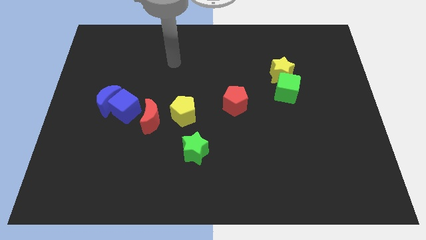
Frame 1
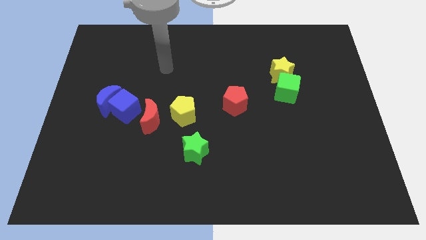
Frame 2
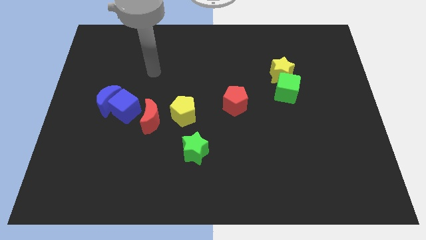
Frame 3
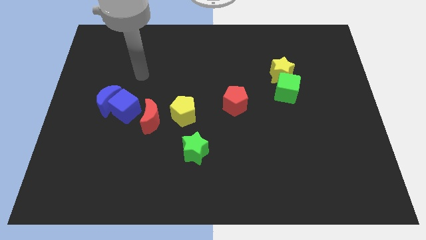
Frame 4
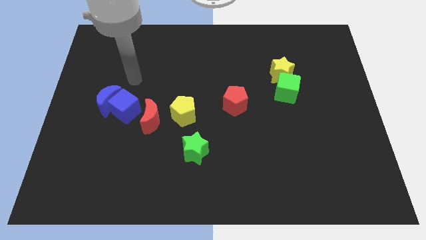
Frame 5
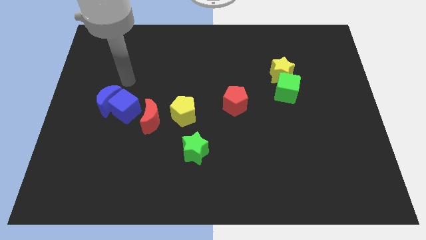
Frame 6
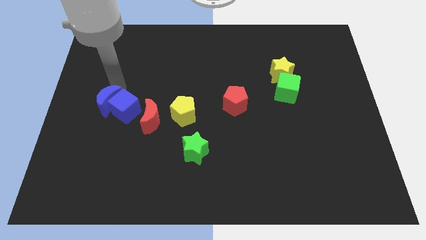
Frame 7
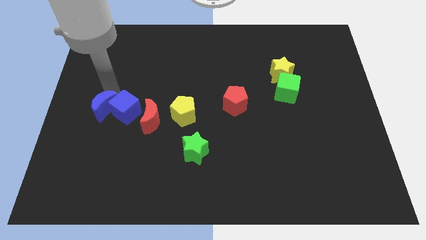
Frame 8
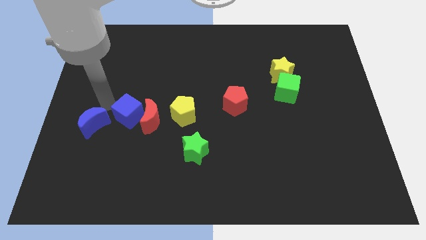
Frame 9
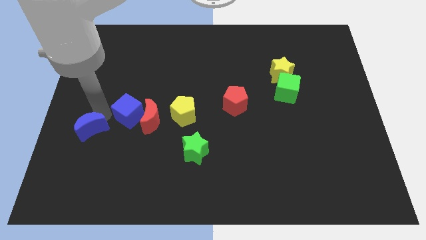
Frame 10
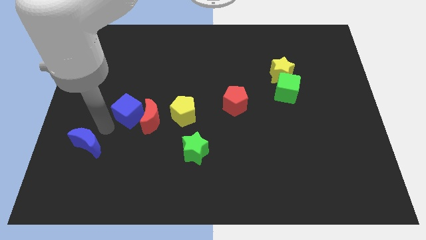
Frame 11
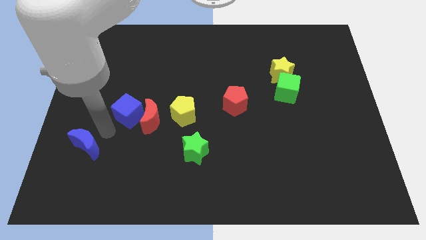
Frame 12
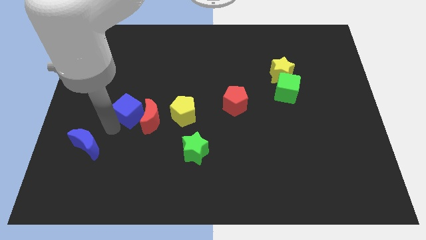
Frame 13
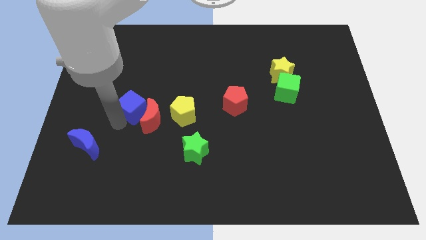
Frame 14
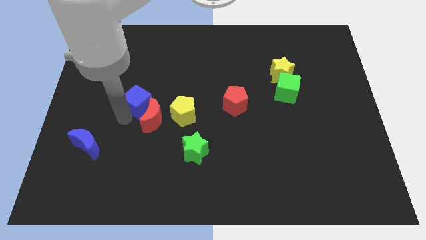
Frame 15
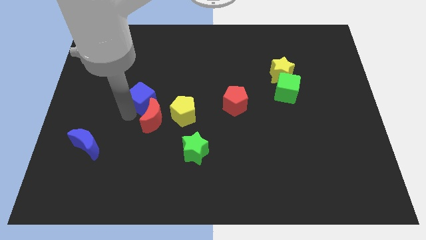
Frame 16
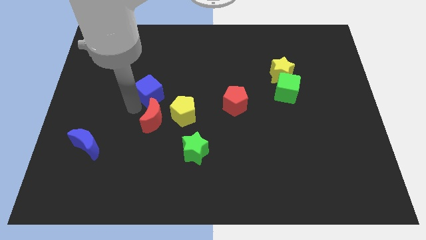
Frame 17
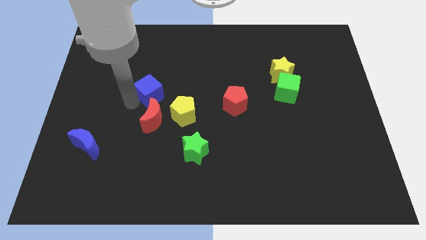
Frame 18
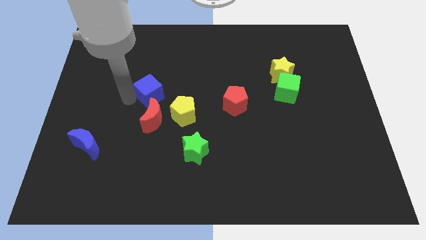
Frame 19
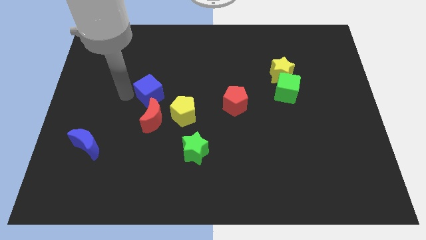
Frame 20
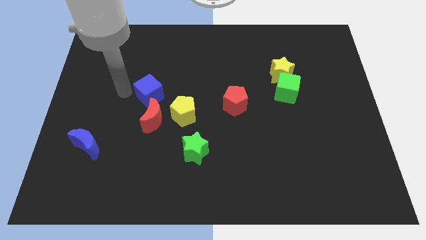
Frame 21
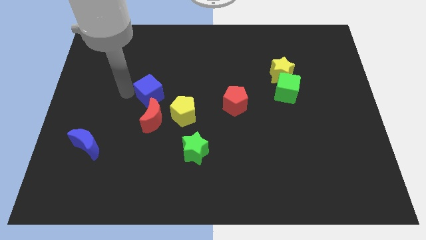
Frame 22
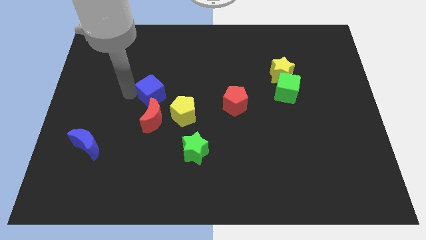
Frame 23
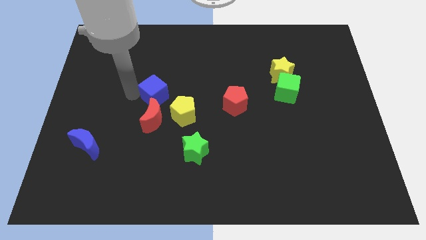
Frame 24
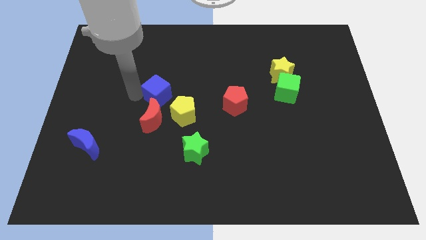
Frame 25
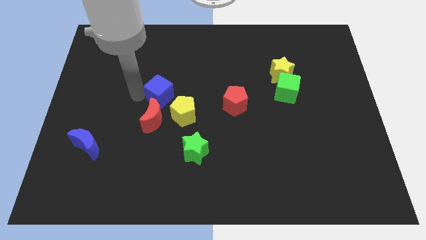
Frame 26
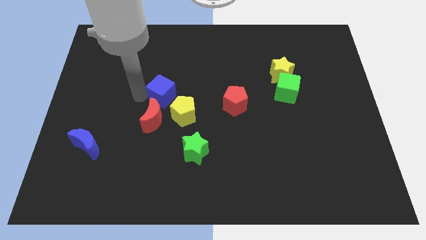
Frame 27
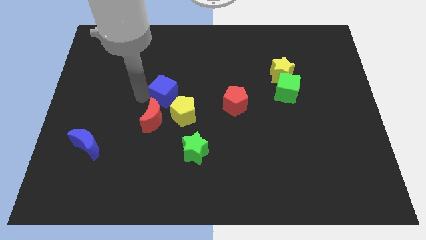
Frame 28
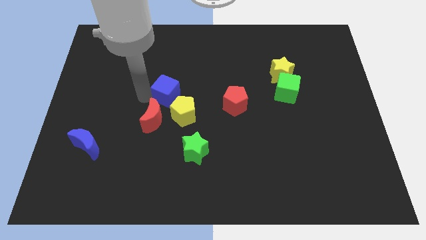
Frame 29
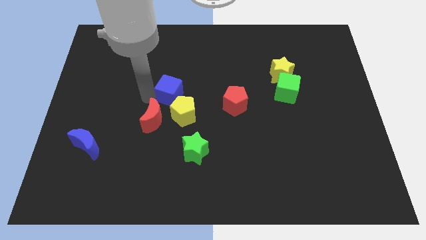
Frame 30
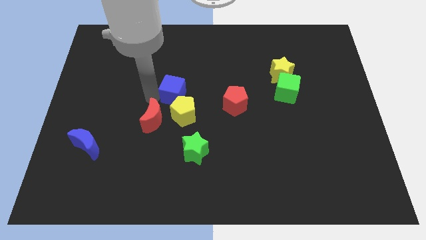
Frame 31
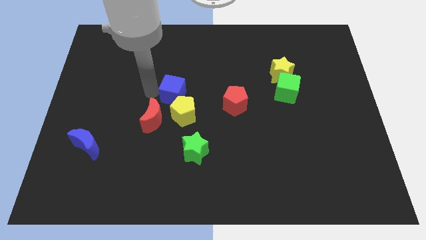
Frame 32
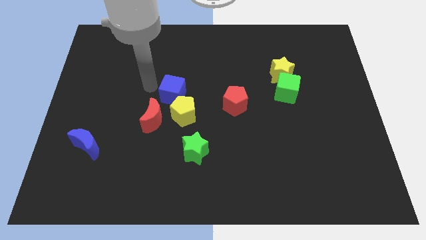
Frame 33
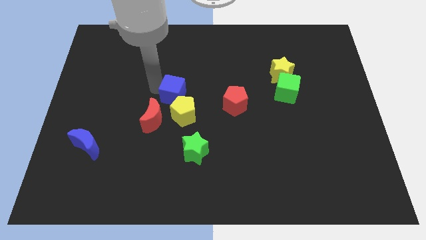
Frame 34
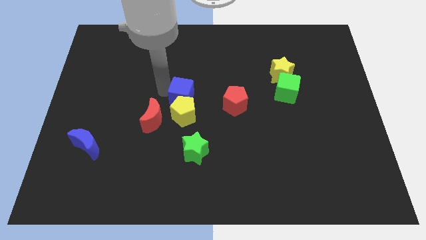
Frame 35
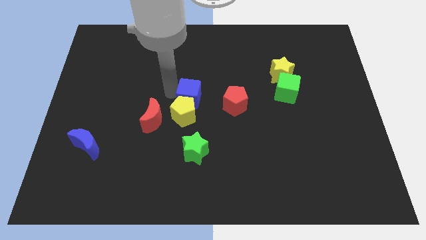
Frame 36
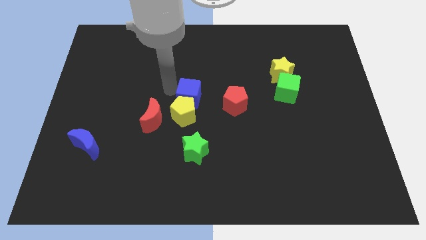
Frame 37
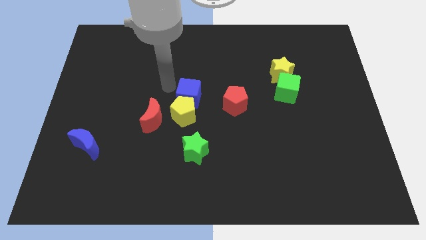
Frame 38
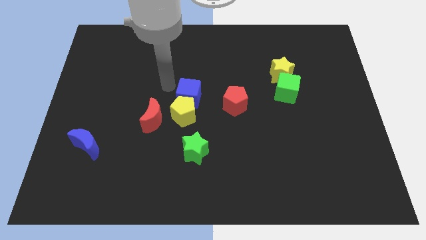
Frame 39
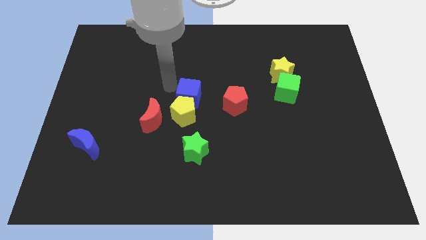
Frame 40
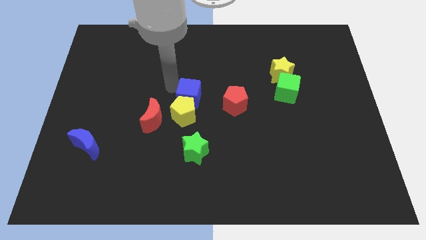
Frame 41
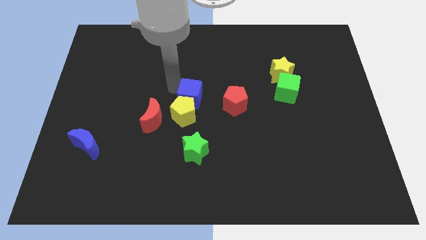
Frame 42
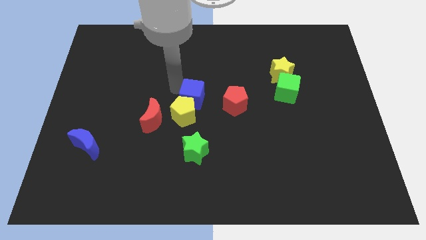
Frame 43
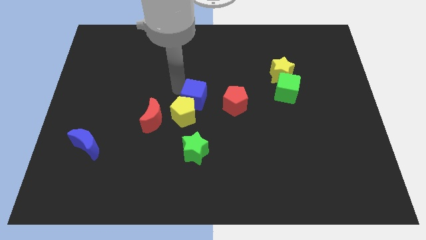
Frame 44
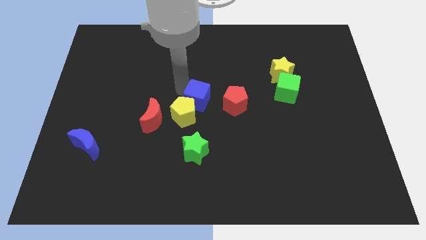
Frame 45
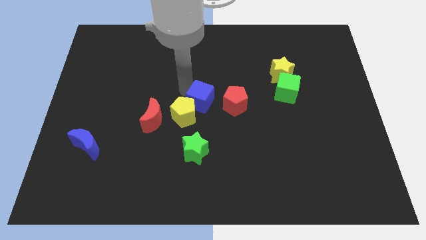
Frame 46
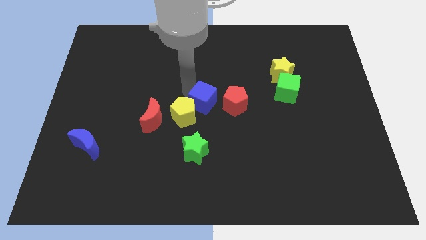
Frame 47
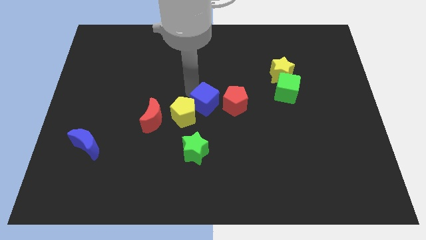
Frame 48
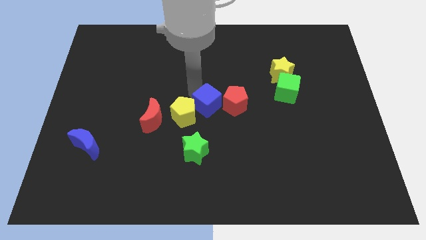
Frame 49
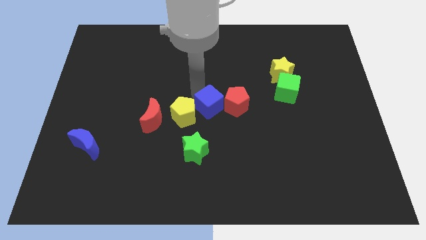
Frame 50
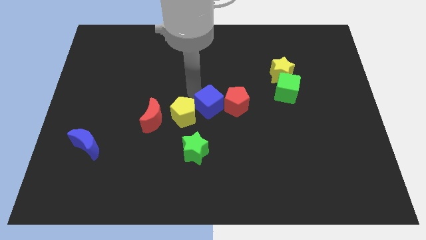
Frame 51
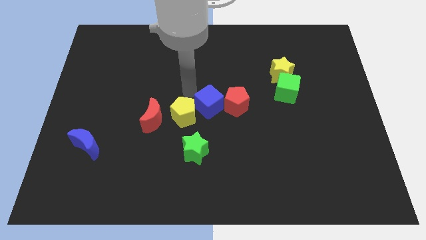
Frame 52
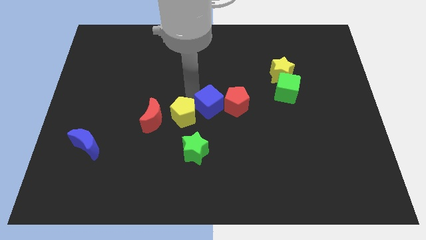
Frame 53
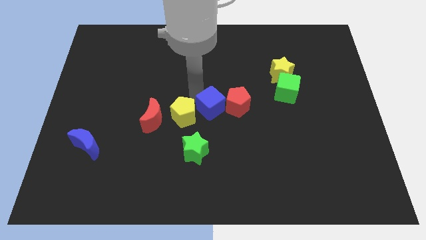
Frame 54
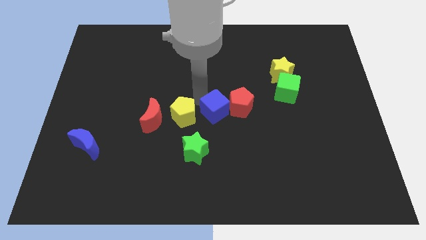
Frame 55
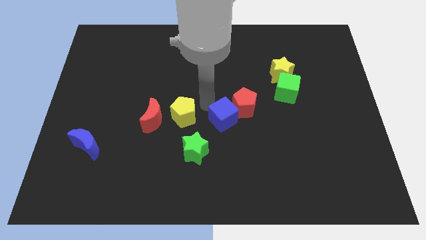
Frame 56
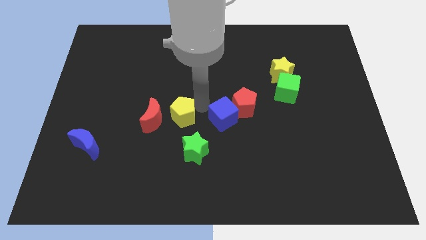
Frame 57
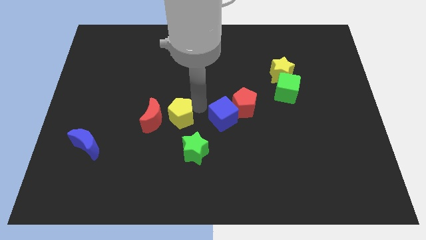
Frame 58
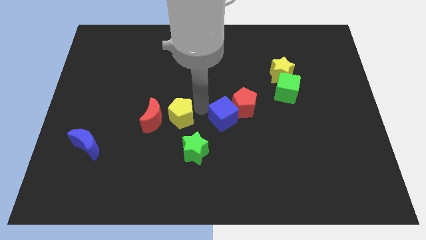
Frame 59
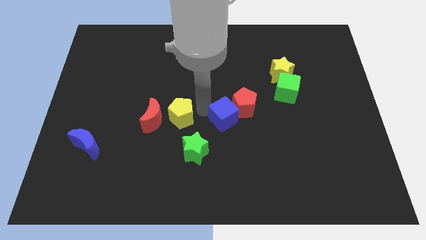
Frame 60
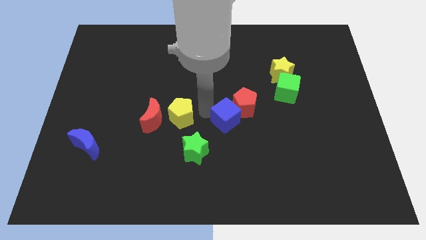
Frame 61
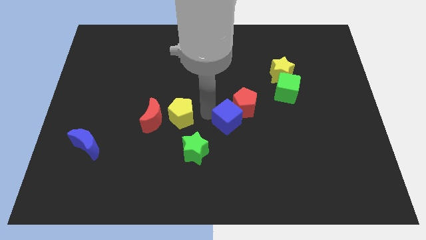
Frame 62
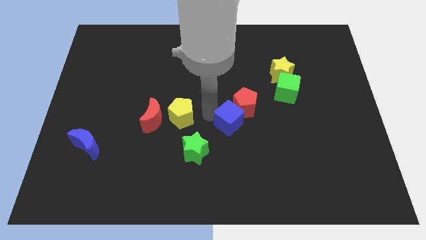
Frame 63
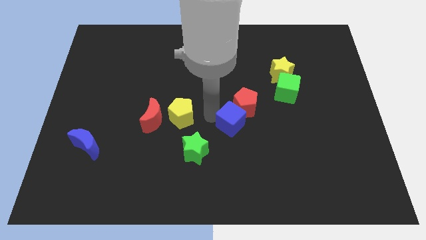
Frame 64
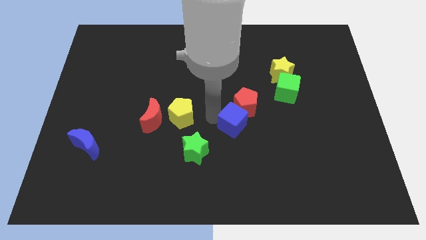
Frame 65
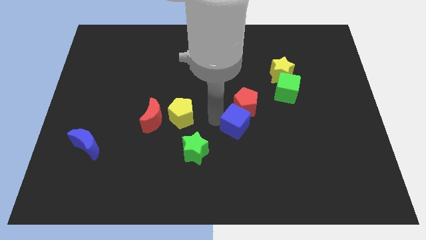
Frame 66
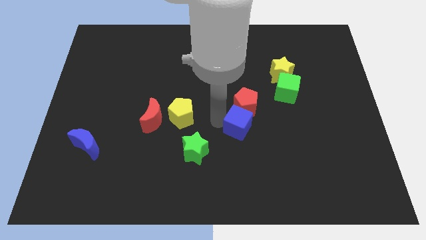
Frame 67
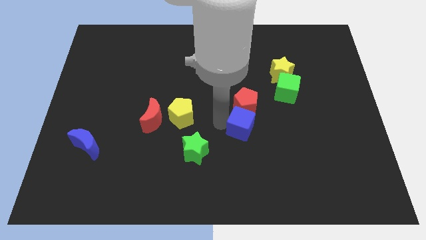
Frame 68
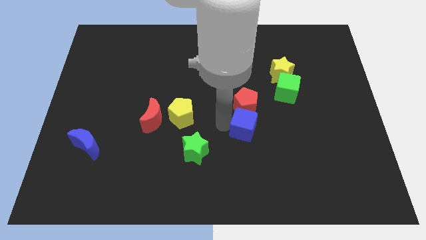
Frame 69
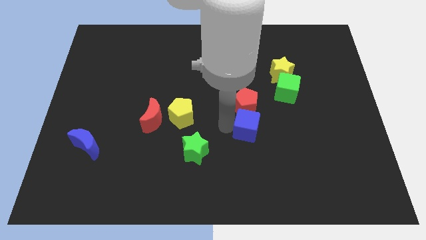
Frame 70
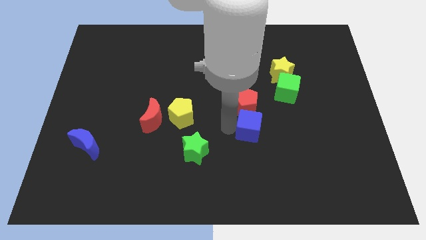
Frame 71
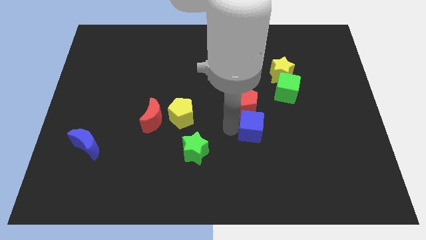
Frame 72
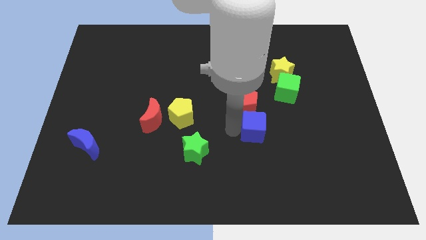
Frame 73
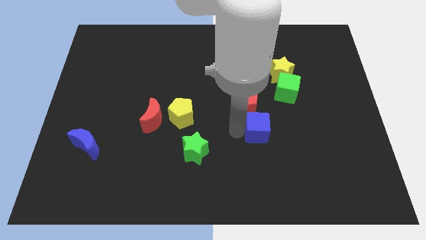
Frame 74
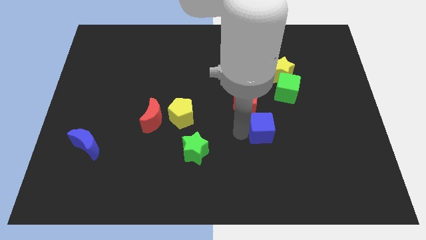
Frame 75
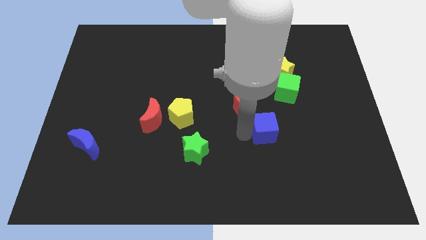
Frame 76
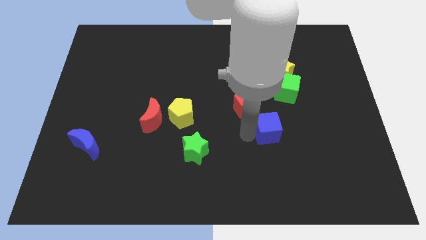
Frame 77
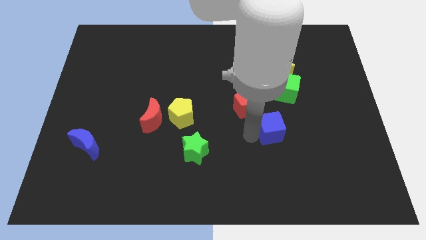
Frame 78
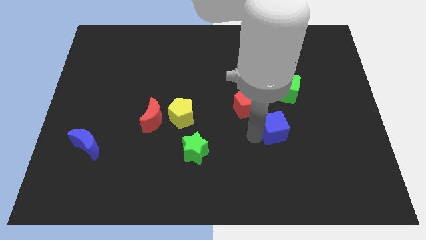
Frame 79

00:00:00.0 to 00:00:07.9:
slide the blue cube below the green cube

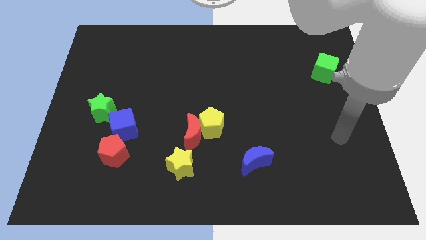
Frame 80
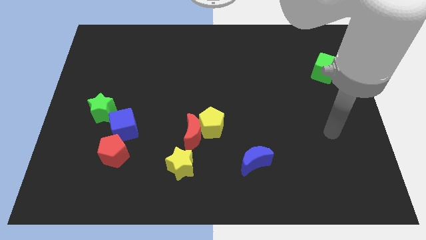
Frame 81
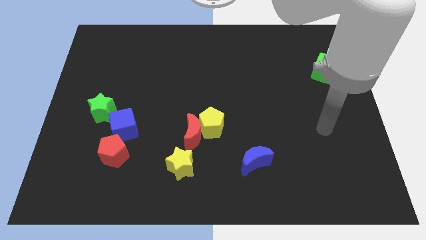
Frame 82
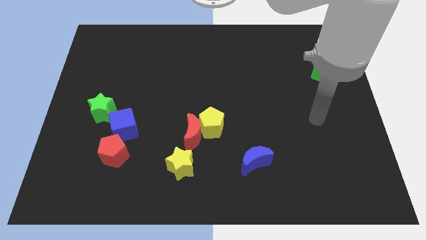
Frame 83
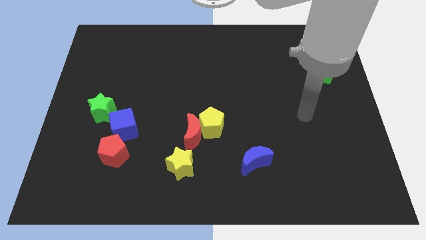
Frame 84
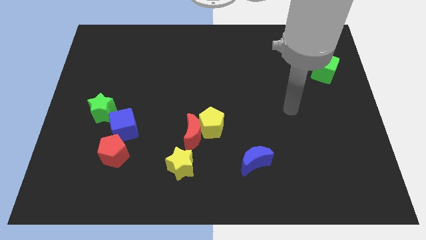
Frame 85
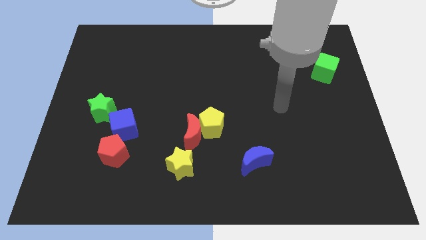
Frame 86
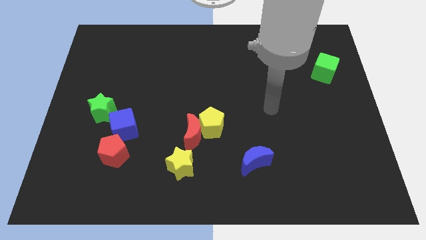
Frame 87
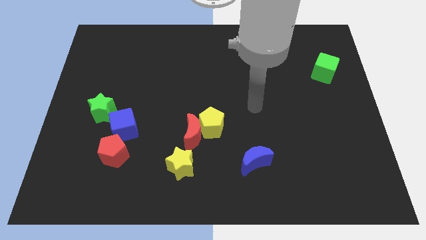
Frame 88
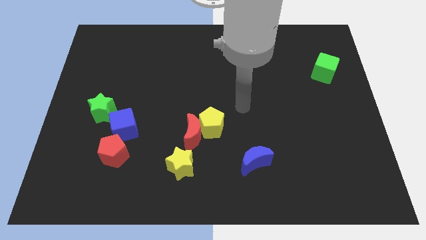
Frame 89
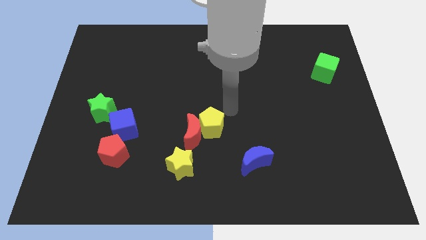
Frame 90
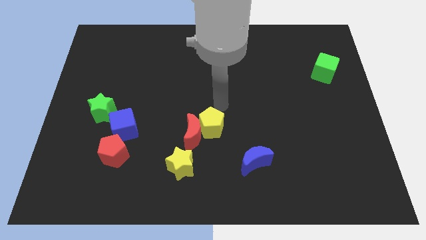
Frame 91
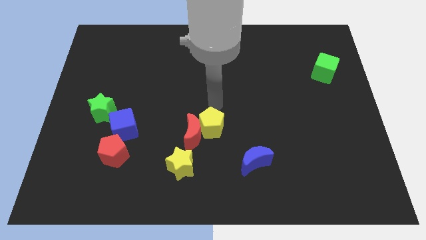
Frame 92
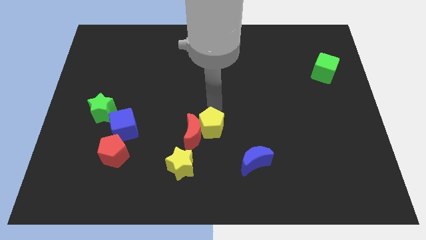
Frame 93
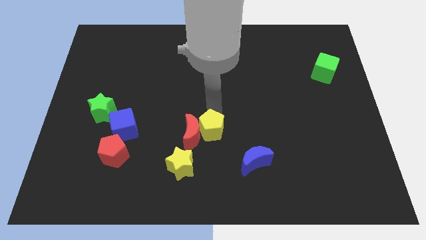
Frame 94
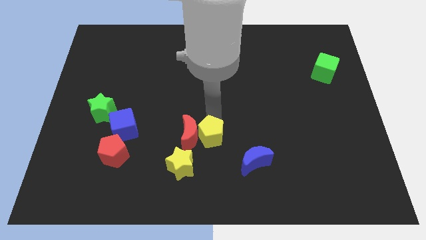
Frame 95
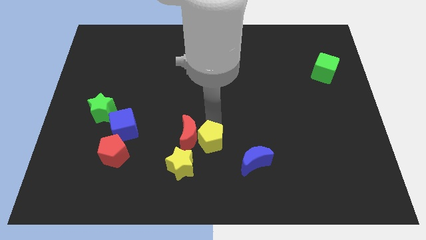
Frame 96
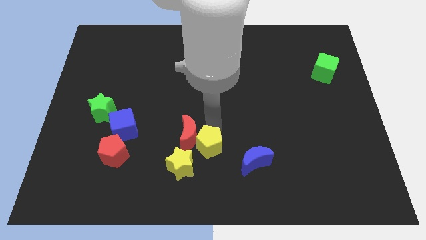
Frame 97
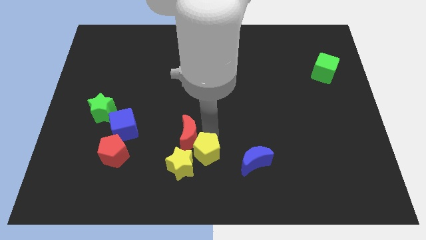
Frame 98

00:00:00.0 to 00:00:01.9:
push the yellow pentagon to the right side of the yellow star
